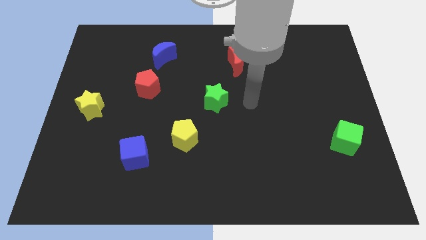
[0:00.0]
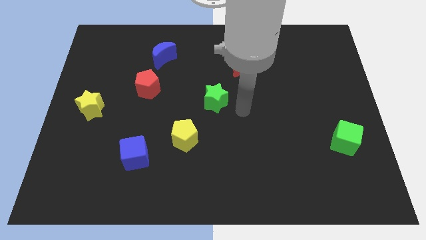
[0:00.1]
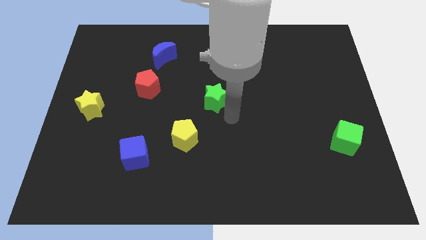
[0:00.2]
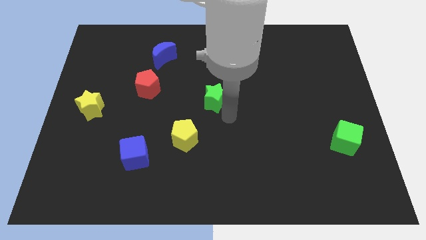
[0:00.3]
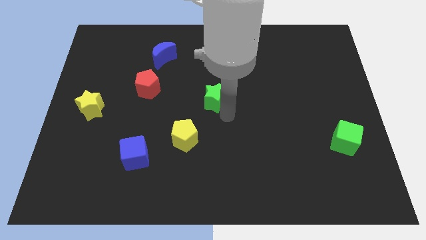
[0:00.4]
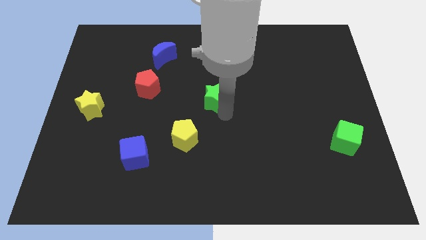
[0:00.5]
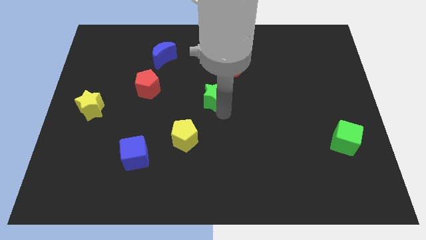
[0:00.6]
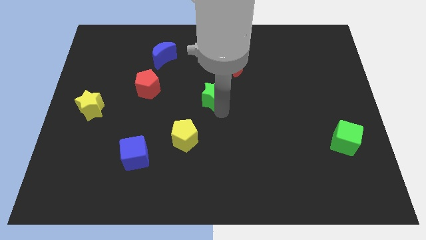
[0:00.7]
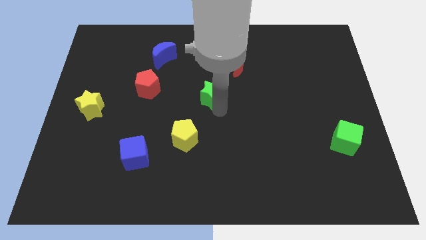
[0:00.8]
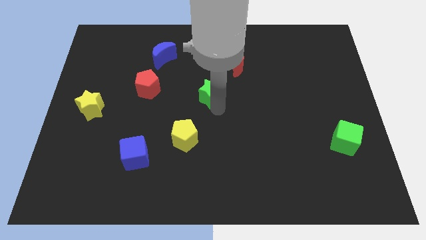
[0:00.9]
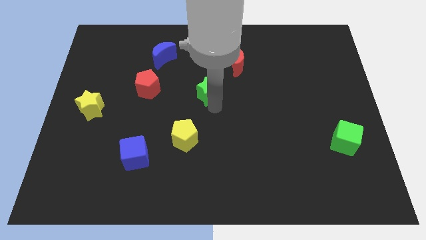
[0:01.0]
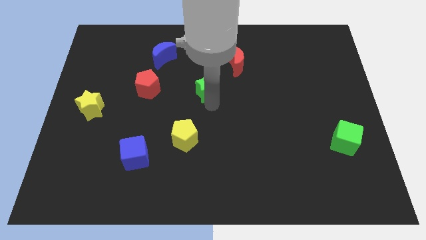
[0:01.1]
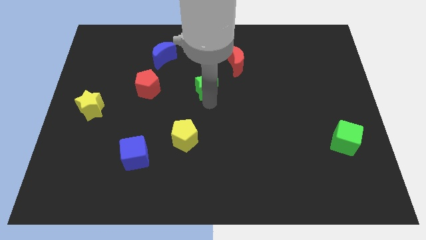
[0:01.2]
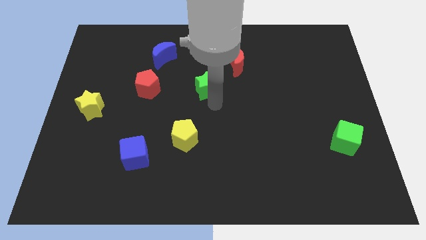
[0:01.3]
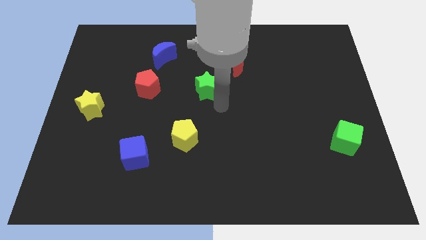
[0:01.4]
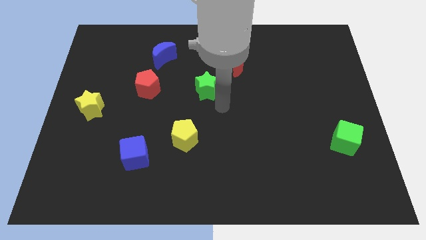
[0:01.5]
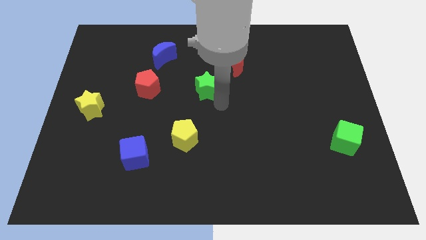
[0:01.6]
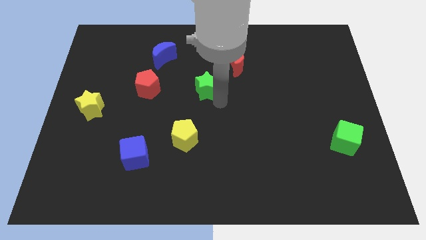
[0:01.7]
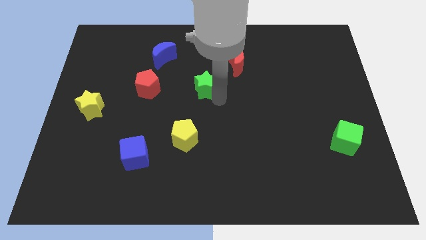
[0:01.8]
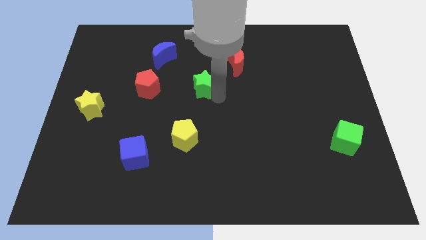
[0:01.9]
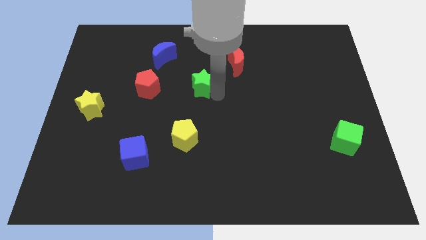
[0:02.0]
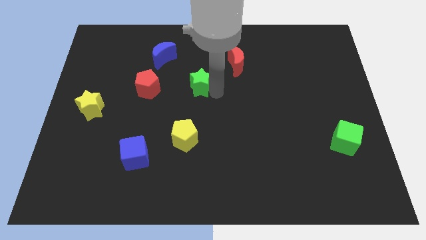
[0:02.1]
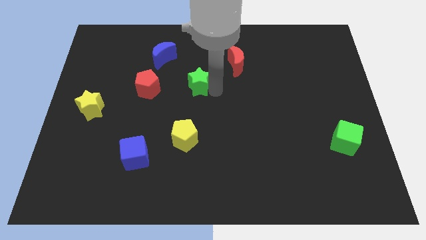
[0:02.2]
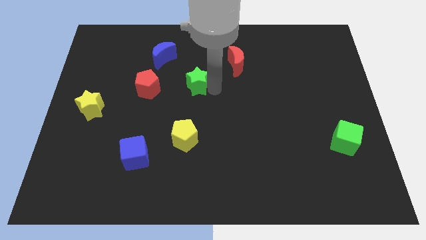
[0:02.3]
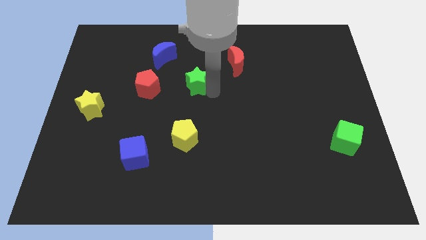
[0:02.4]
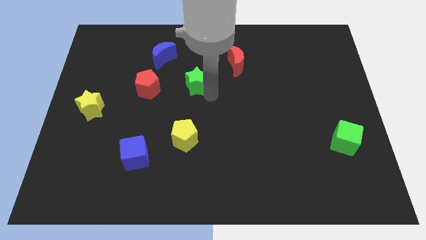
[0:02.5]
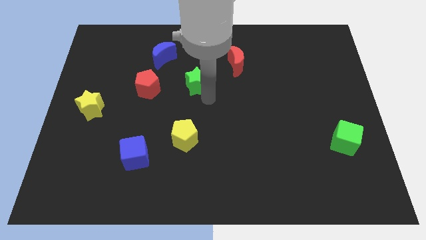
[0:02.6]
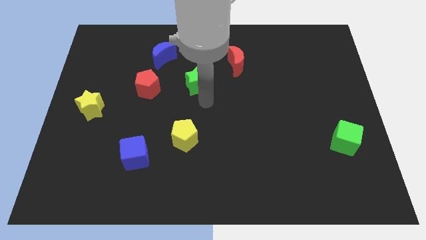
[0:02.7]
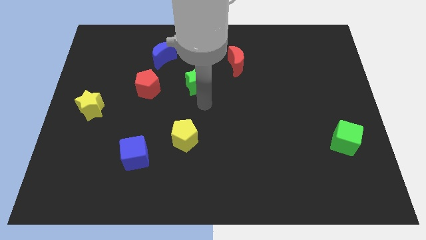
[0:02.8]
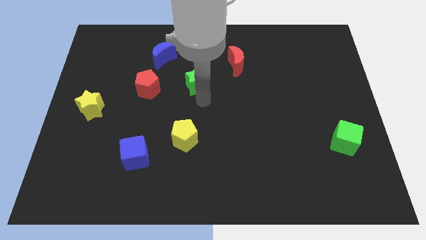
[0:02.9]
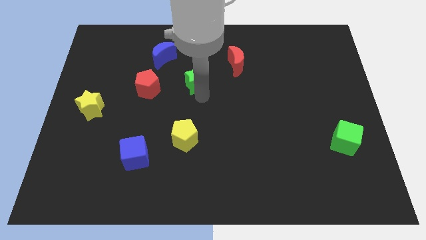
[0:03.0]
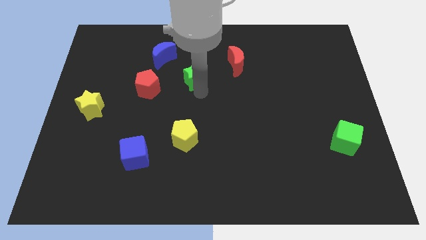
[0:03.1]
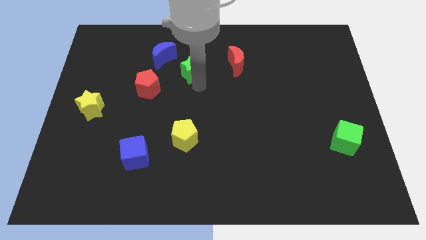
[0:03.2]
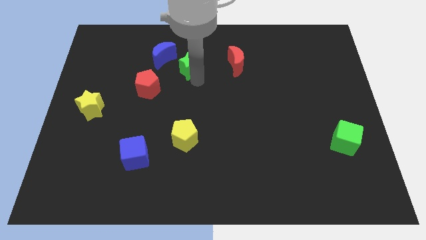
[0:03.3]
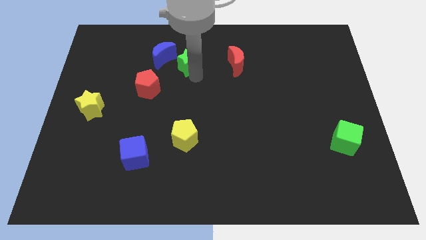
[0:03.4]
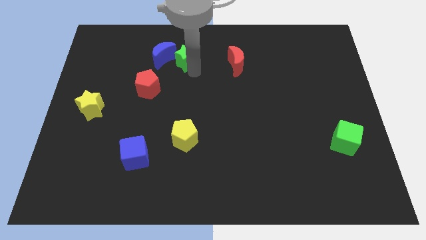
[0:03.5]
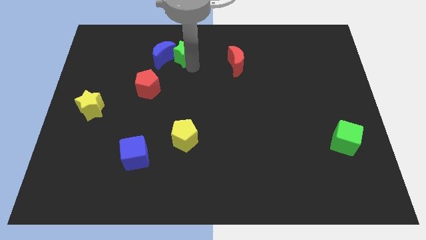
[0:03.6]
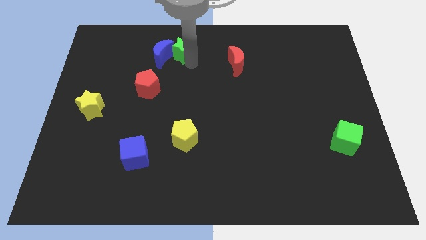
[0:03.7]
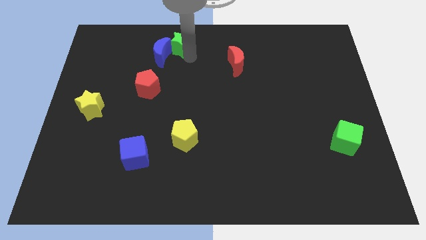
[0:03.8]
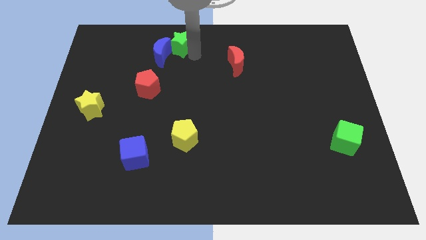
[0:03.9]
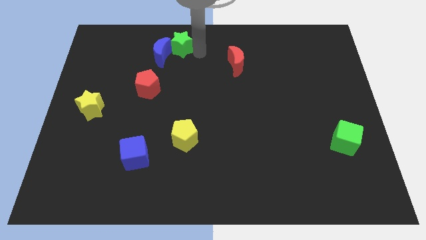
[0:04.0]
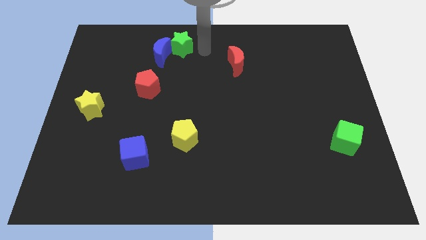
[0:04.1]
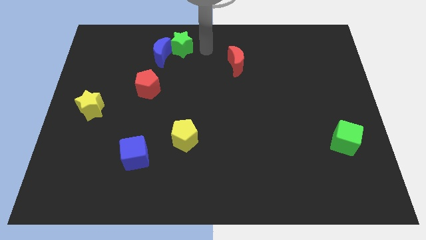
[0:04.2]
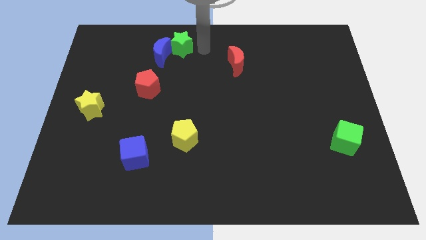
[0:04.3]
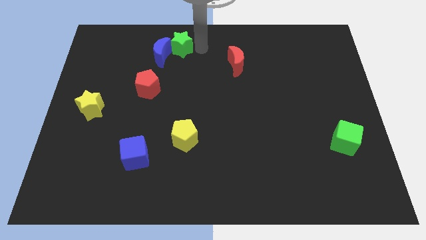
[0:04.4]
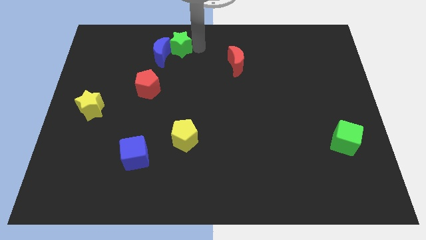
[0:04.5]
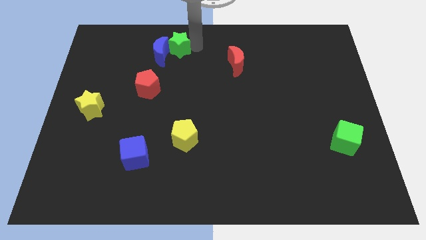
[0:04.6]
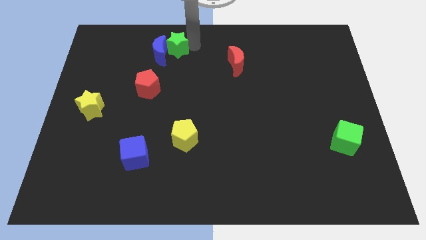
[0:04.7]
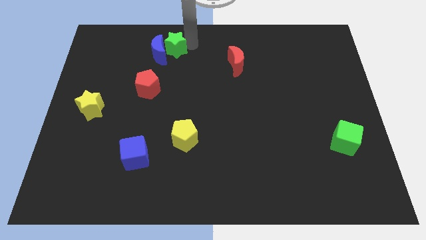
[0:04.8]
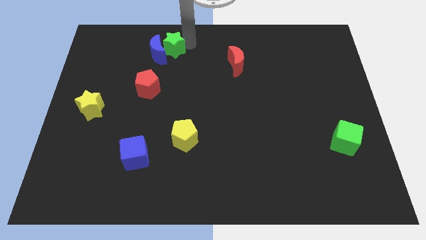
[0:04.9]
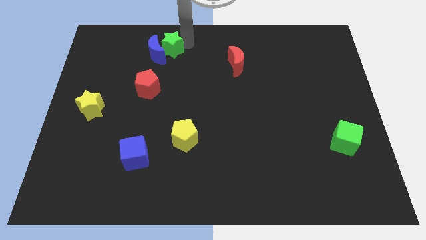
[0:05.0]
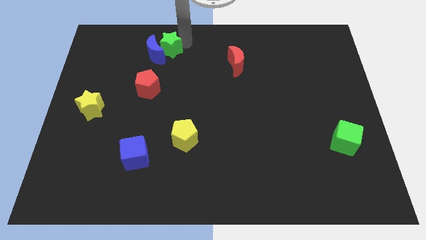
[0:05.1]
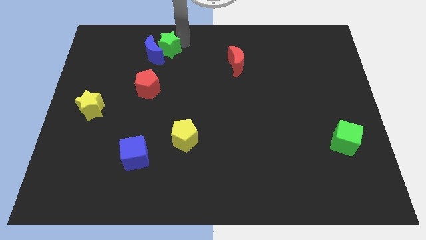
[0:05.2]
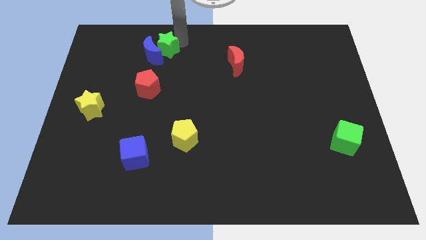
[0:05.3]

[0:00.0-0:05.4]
slide the green star above the red pentagon

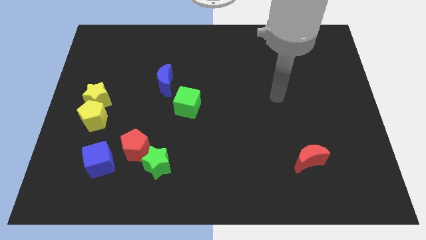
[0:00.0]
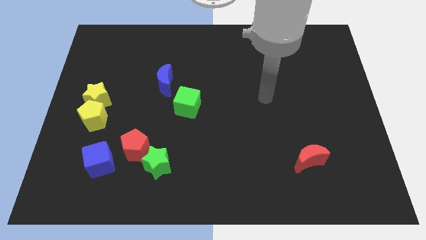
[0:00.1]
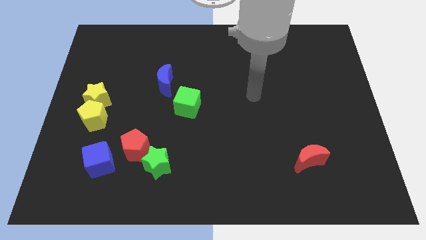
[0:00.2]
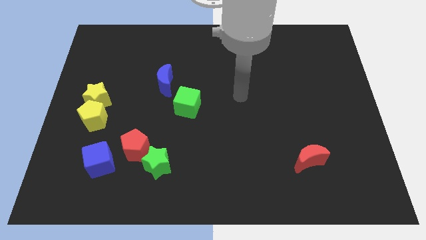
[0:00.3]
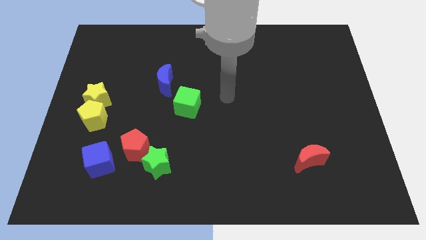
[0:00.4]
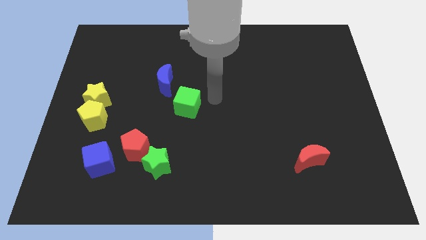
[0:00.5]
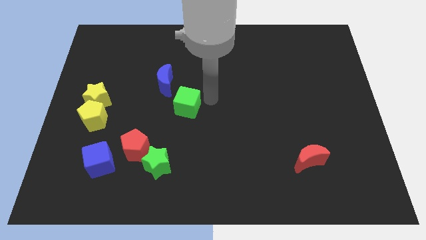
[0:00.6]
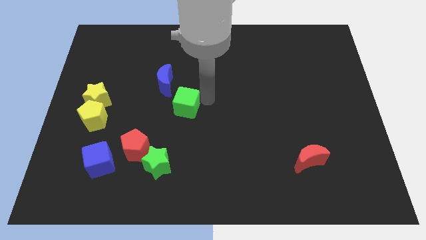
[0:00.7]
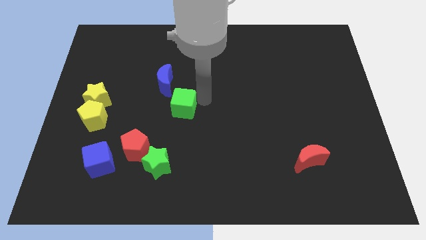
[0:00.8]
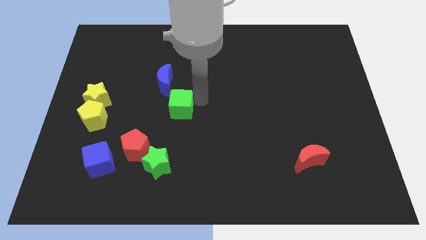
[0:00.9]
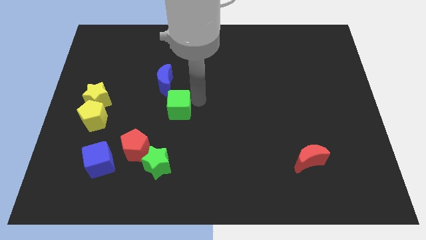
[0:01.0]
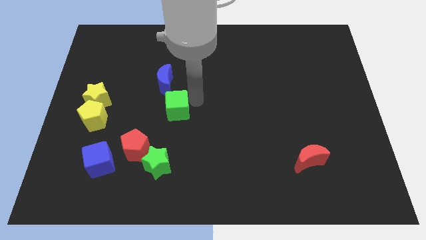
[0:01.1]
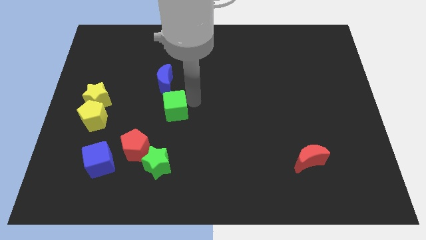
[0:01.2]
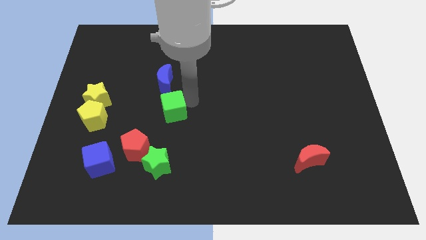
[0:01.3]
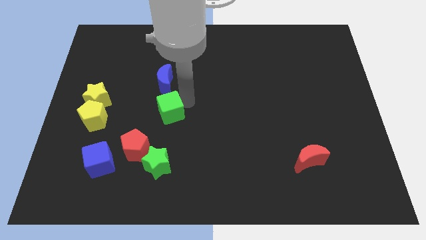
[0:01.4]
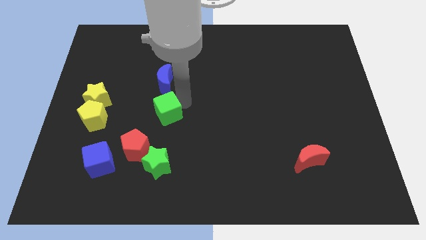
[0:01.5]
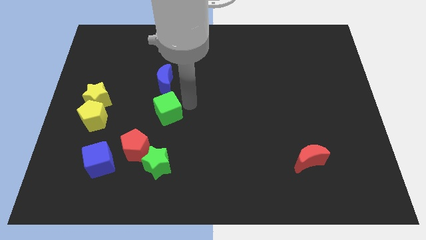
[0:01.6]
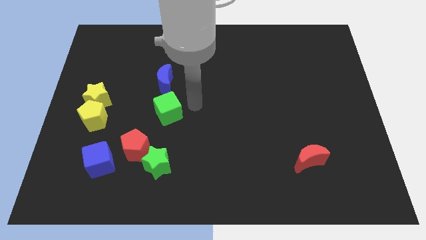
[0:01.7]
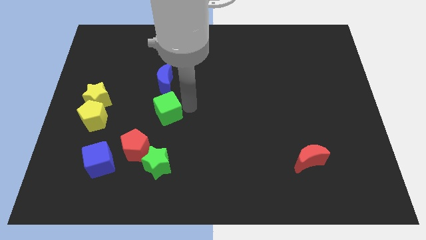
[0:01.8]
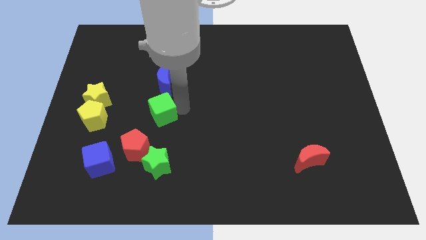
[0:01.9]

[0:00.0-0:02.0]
slide the green cube right of the yellow pentagon
